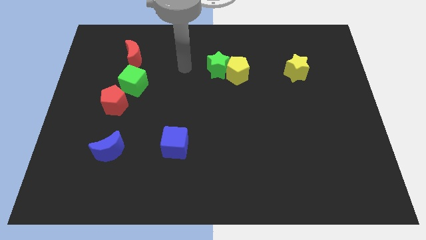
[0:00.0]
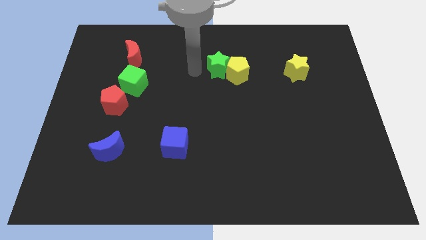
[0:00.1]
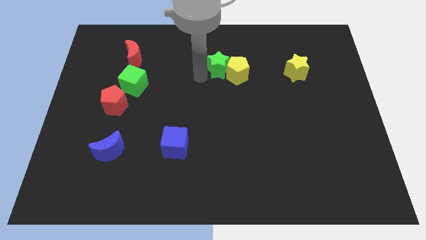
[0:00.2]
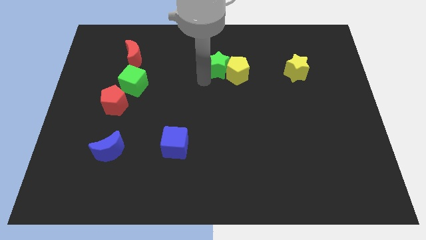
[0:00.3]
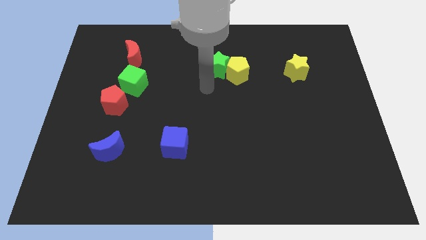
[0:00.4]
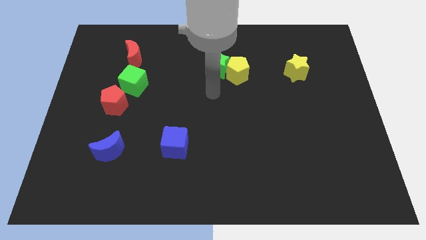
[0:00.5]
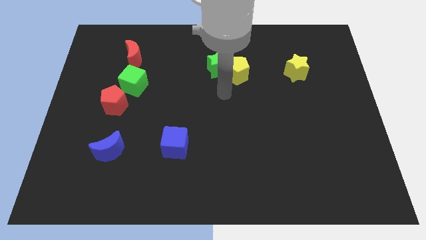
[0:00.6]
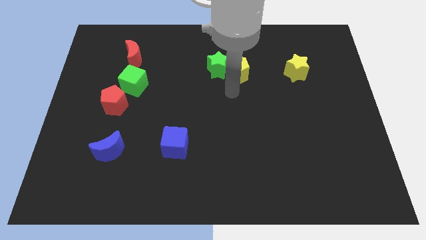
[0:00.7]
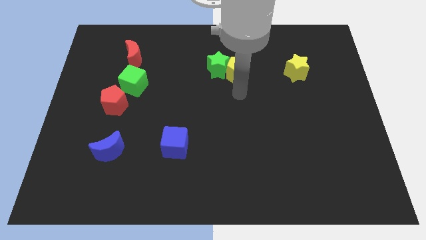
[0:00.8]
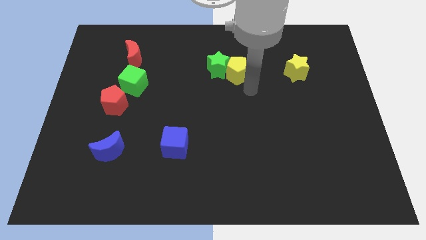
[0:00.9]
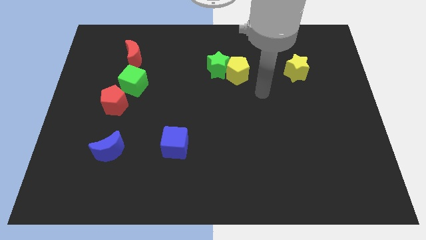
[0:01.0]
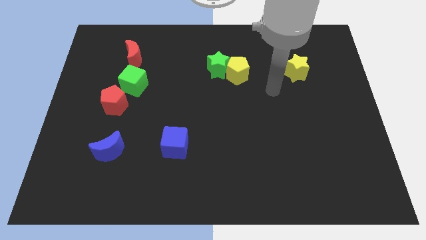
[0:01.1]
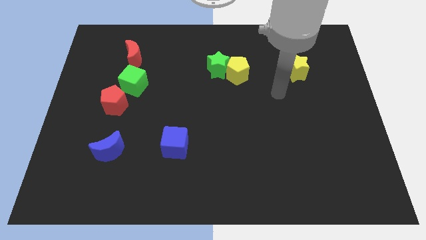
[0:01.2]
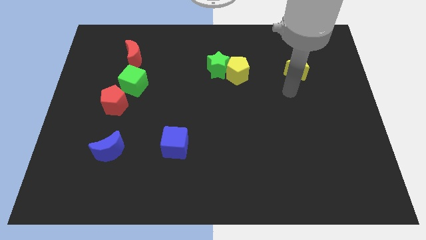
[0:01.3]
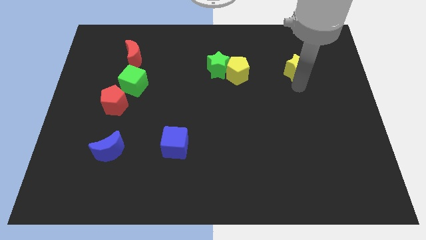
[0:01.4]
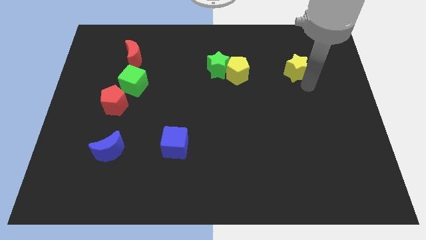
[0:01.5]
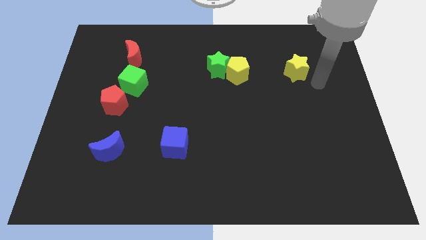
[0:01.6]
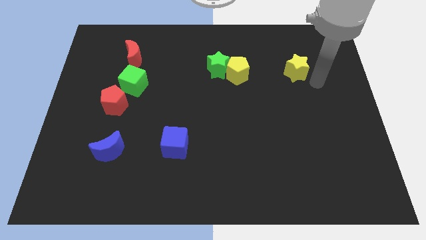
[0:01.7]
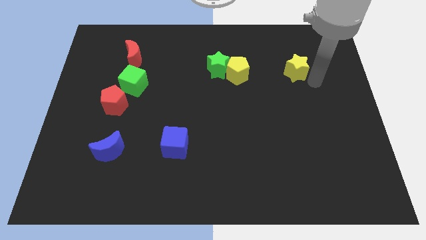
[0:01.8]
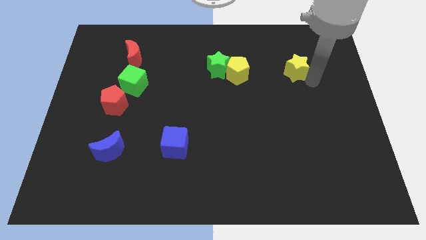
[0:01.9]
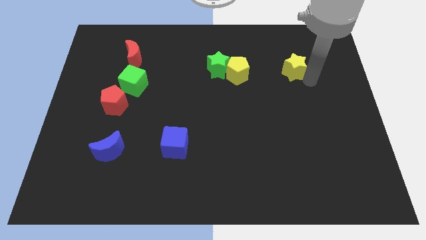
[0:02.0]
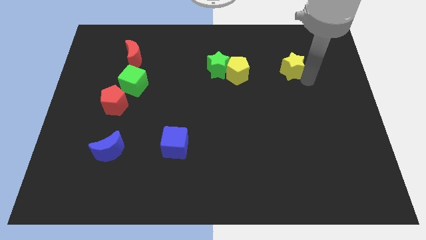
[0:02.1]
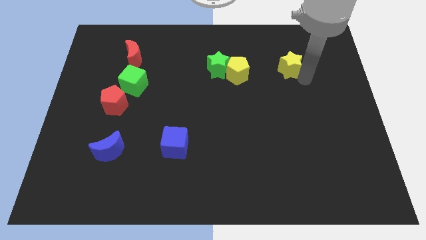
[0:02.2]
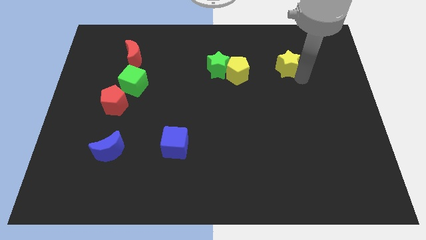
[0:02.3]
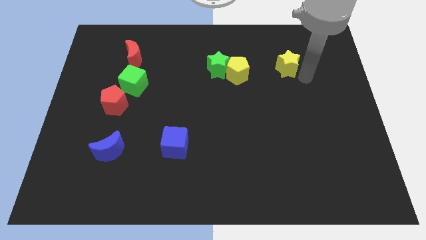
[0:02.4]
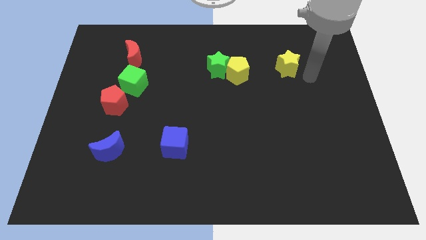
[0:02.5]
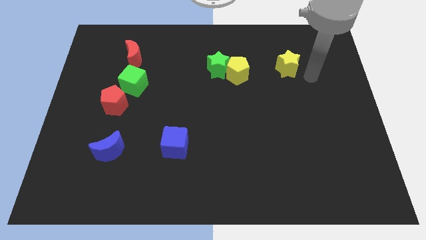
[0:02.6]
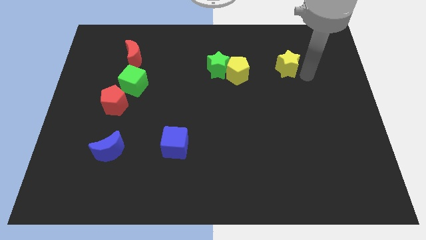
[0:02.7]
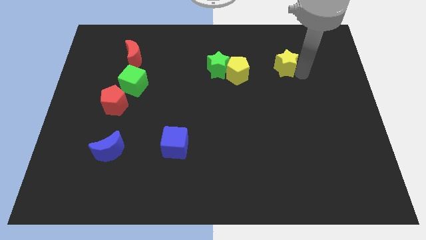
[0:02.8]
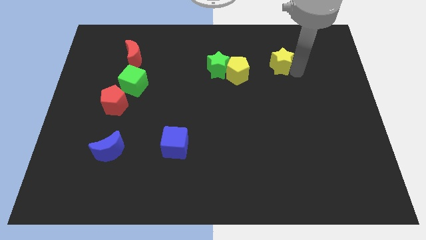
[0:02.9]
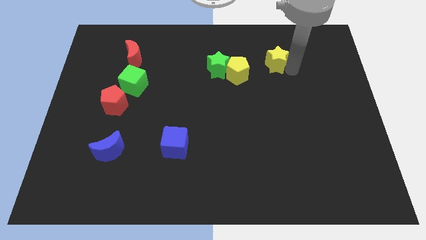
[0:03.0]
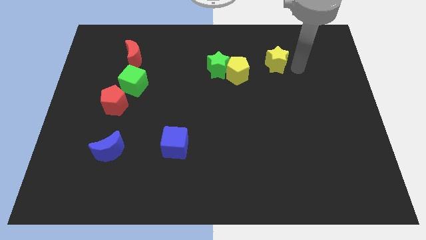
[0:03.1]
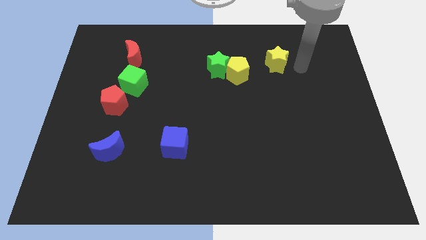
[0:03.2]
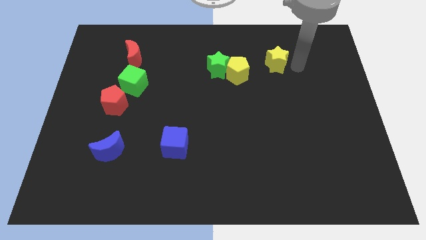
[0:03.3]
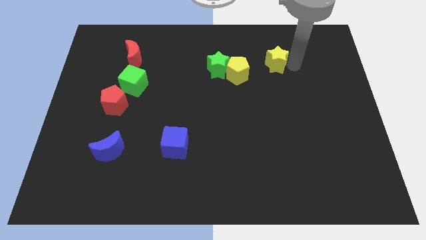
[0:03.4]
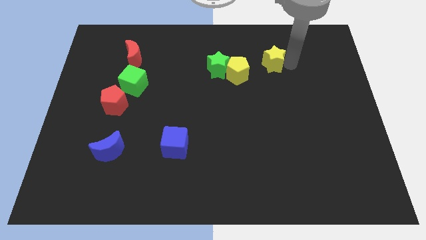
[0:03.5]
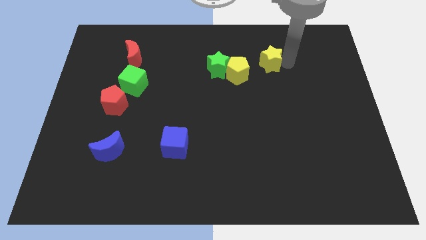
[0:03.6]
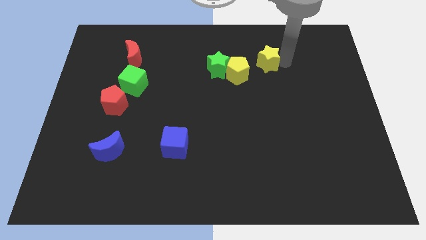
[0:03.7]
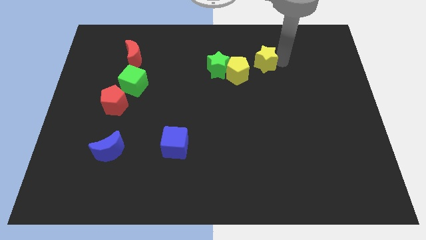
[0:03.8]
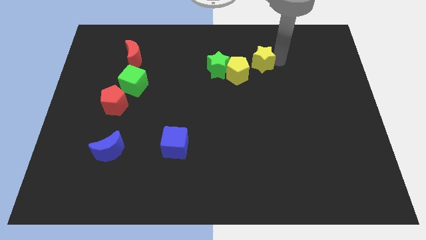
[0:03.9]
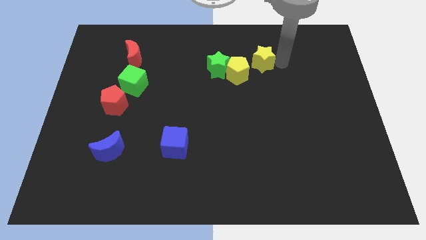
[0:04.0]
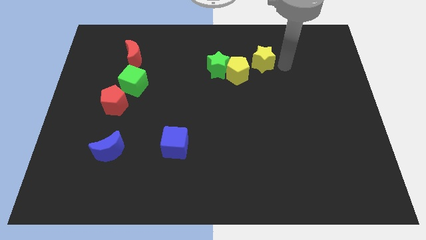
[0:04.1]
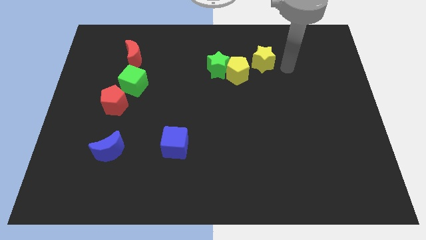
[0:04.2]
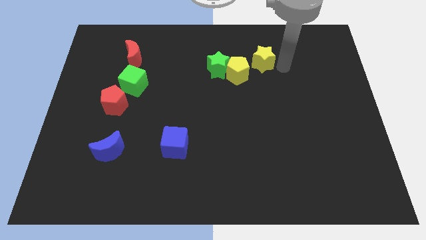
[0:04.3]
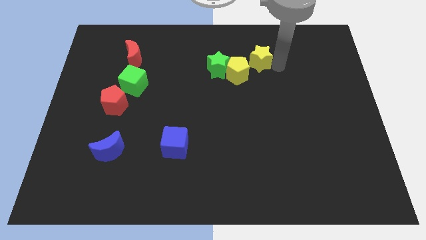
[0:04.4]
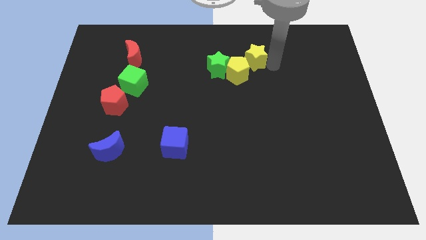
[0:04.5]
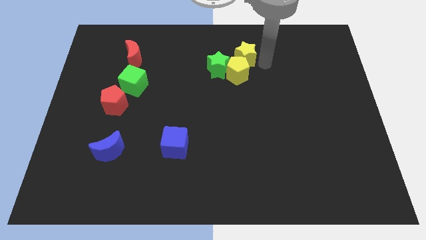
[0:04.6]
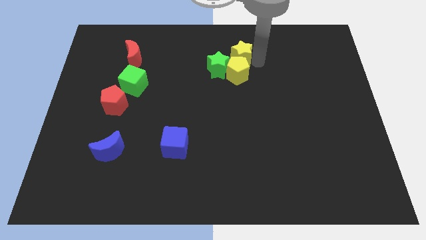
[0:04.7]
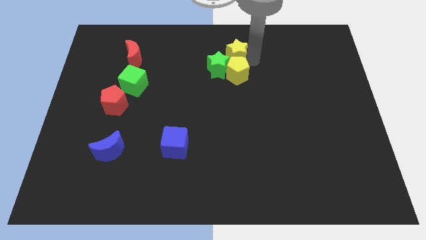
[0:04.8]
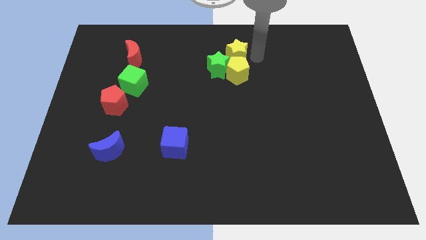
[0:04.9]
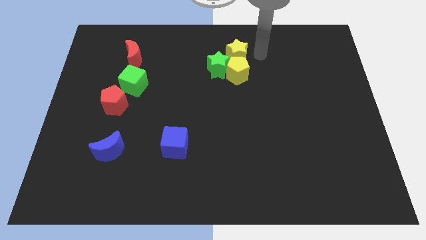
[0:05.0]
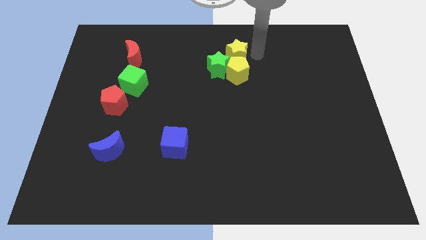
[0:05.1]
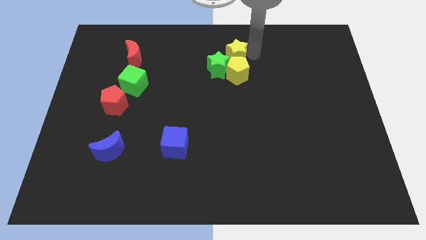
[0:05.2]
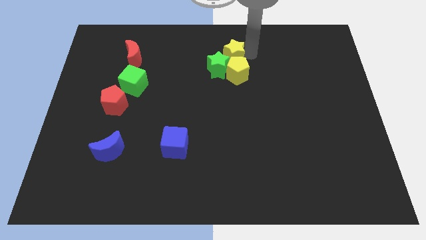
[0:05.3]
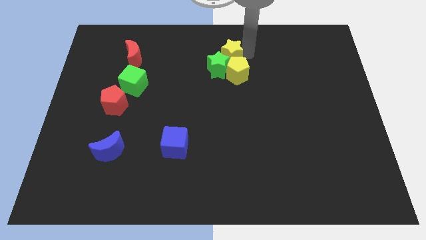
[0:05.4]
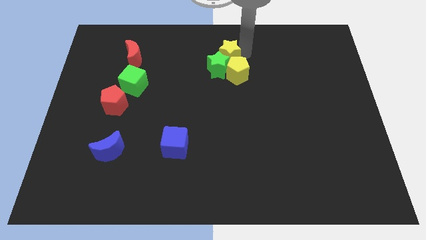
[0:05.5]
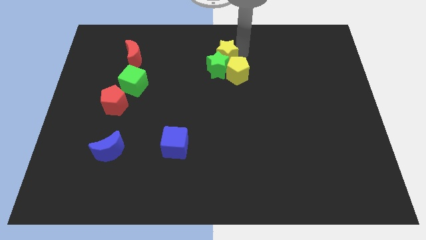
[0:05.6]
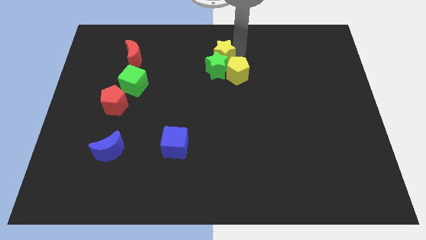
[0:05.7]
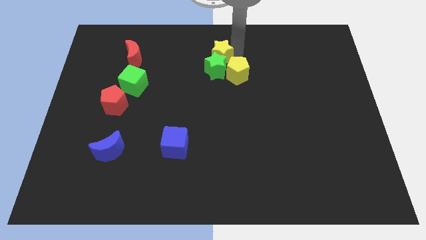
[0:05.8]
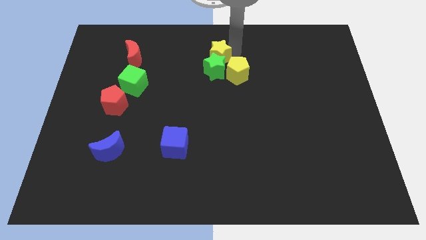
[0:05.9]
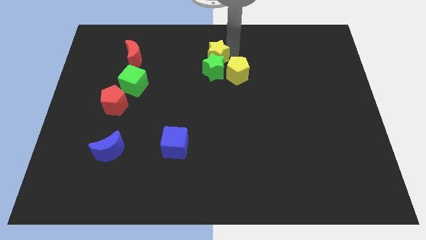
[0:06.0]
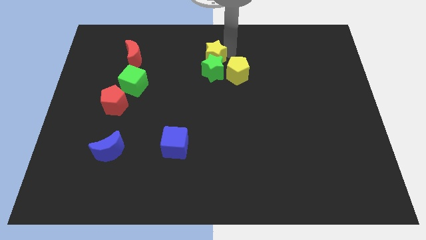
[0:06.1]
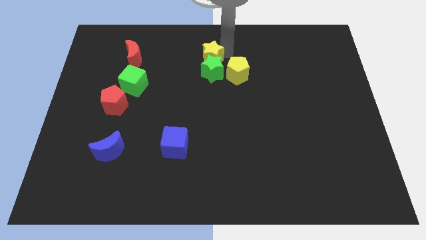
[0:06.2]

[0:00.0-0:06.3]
slide the yellow star to the left

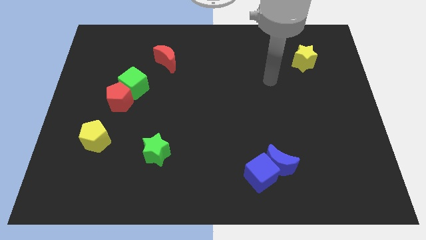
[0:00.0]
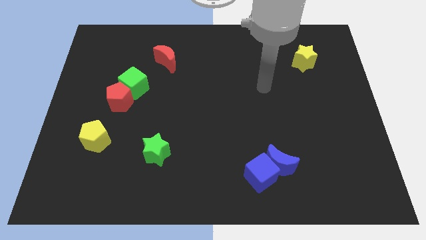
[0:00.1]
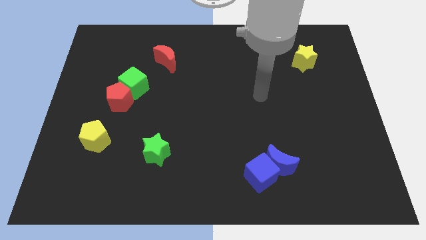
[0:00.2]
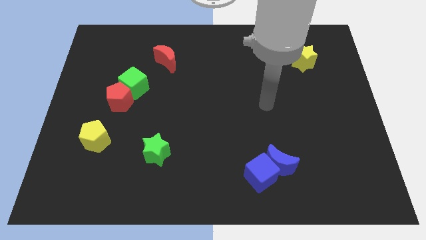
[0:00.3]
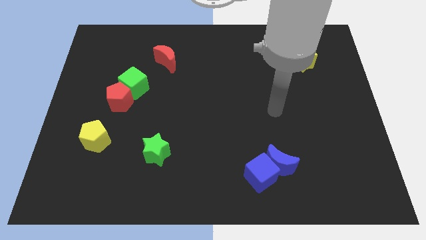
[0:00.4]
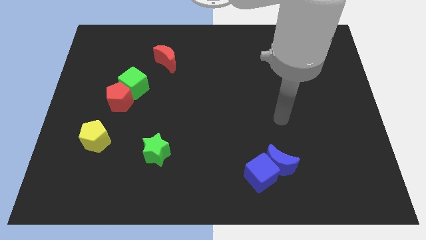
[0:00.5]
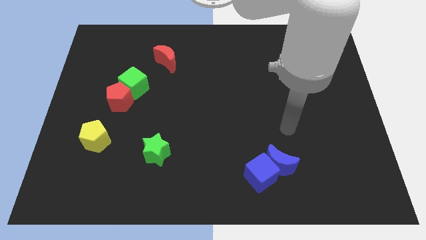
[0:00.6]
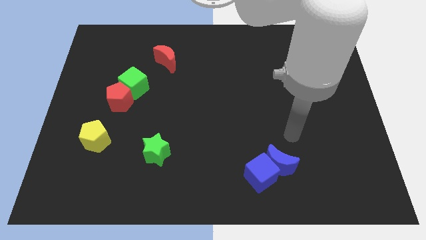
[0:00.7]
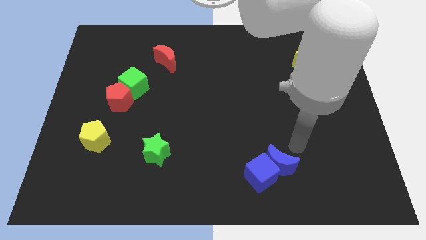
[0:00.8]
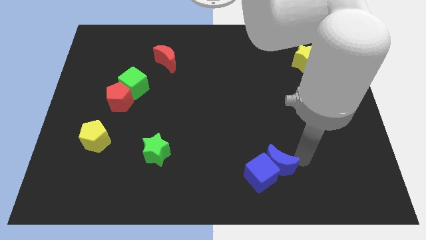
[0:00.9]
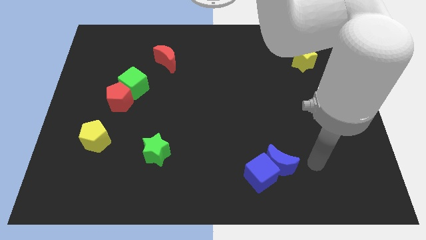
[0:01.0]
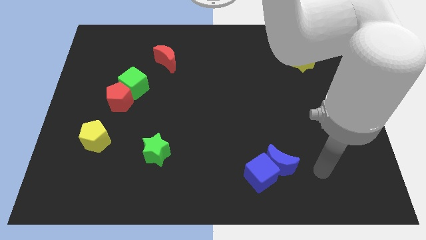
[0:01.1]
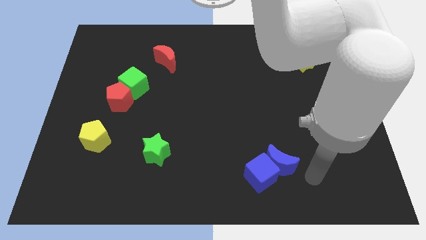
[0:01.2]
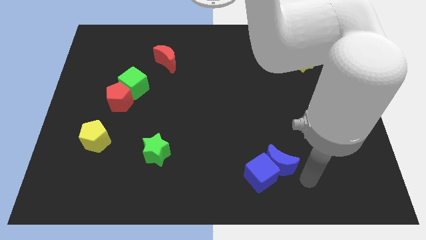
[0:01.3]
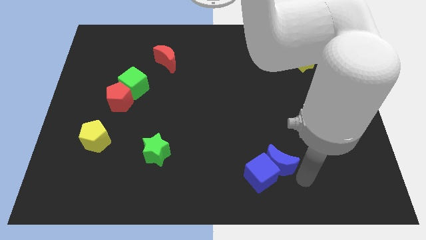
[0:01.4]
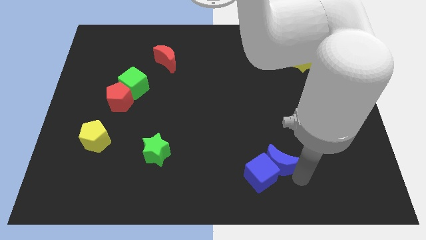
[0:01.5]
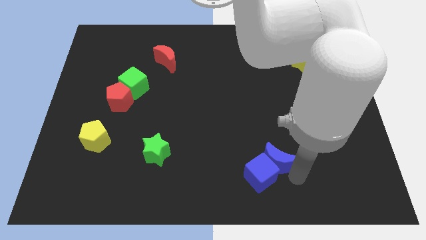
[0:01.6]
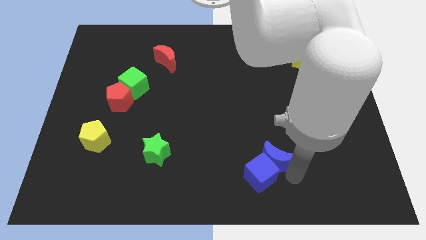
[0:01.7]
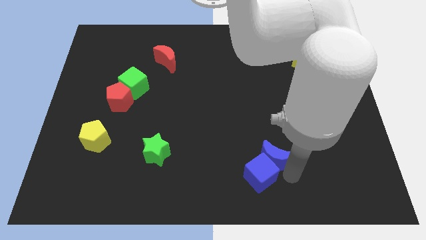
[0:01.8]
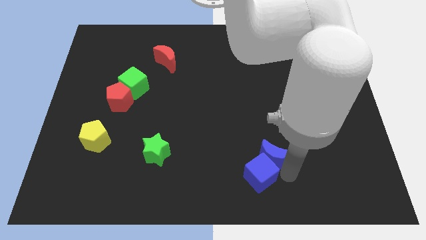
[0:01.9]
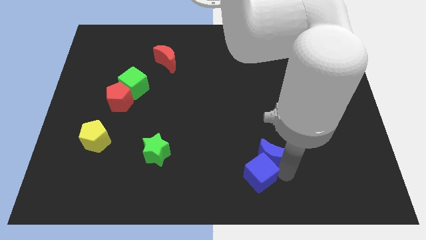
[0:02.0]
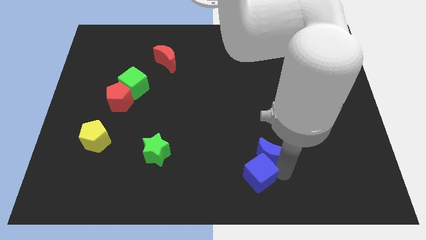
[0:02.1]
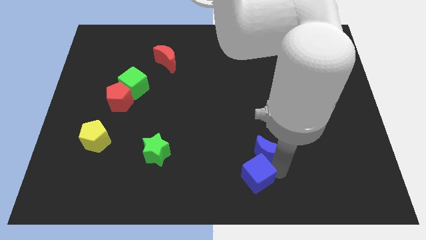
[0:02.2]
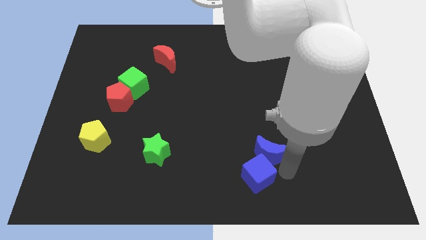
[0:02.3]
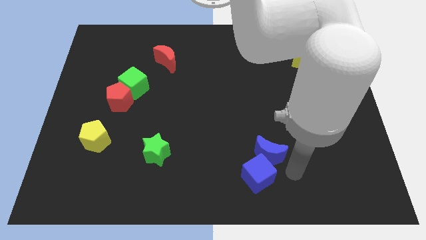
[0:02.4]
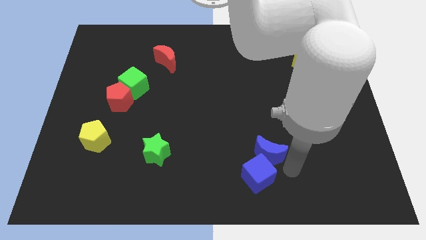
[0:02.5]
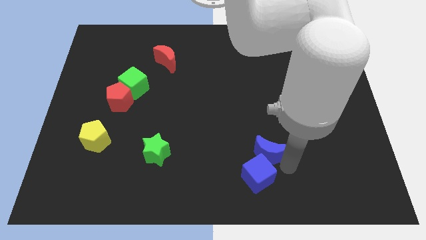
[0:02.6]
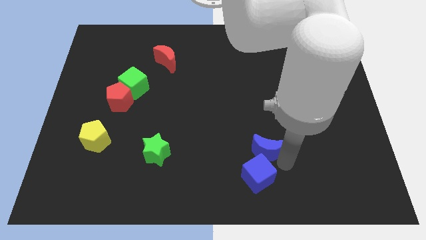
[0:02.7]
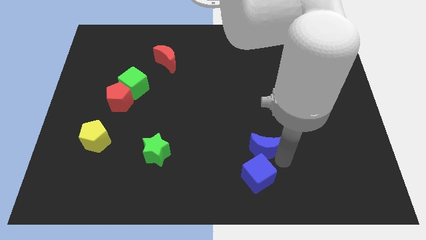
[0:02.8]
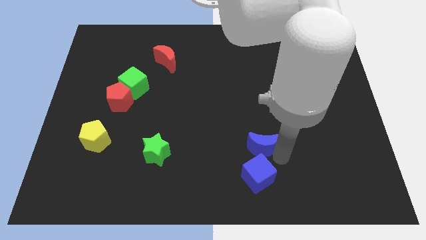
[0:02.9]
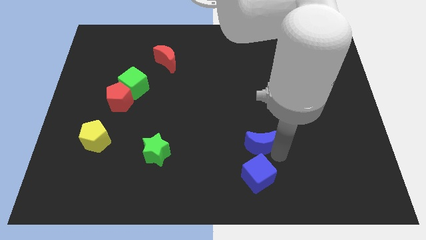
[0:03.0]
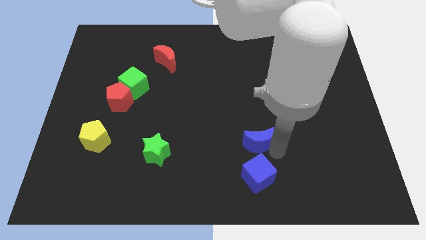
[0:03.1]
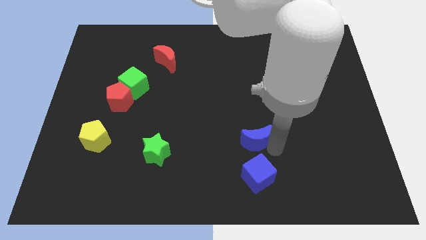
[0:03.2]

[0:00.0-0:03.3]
push the blue moon a little bit diagonally up and left
